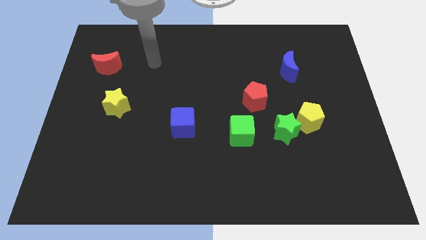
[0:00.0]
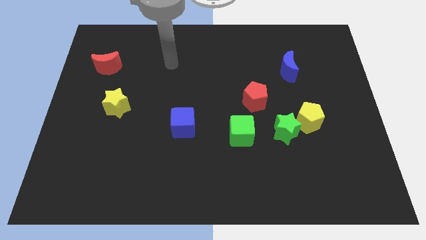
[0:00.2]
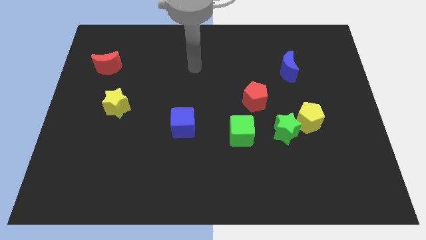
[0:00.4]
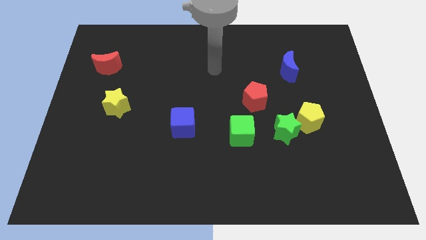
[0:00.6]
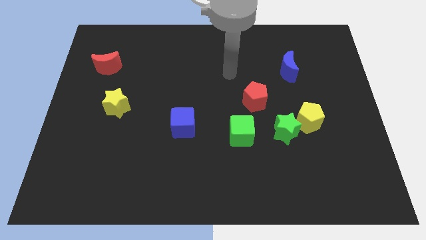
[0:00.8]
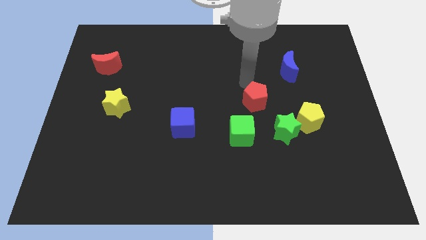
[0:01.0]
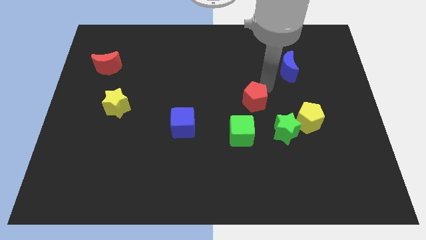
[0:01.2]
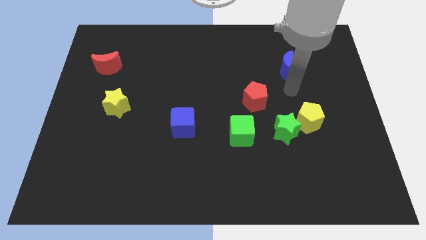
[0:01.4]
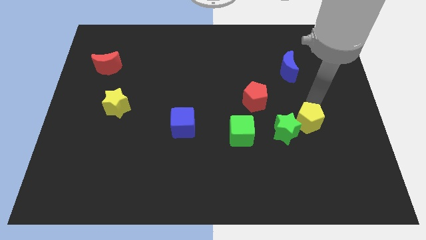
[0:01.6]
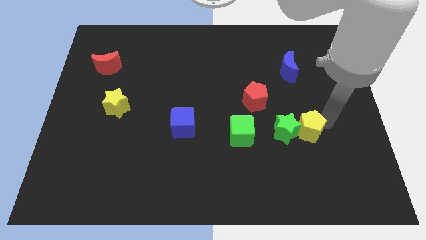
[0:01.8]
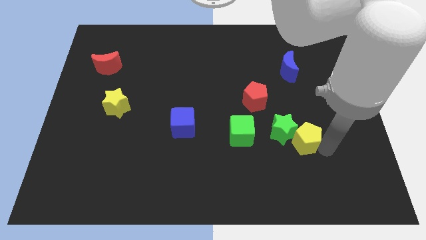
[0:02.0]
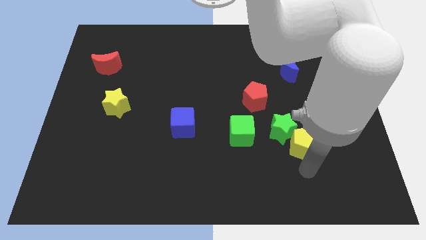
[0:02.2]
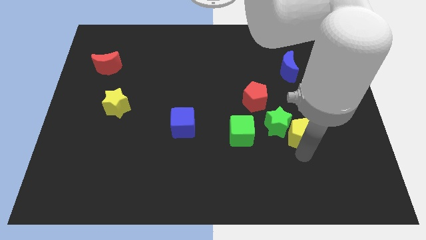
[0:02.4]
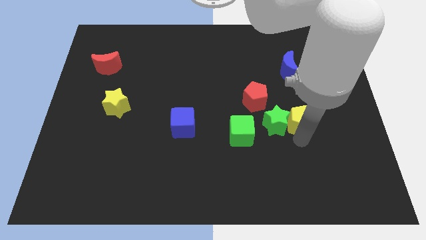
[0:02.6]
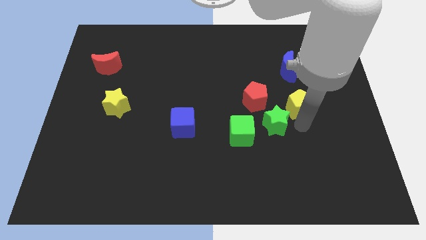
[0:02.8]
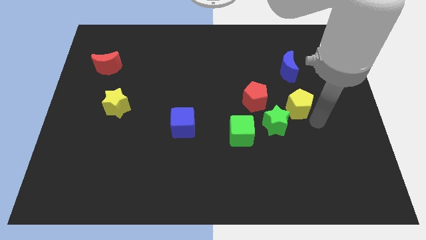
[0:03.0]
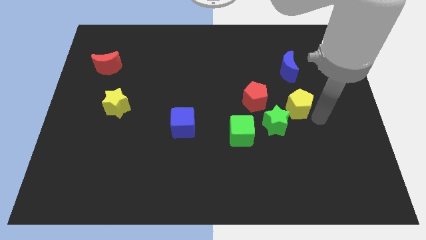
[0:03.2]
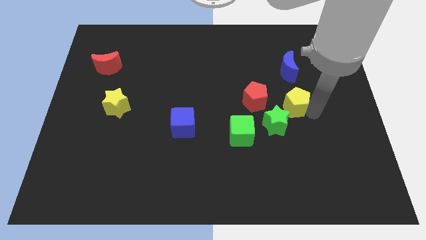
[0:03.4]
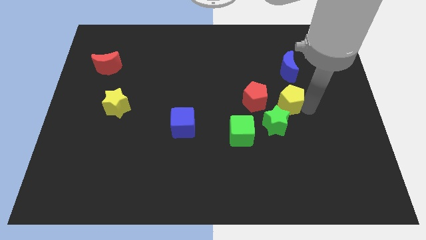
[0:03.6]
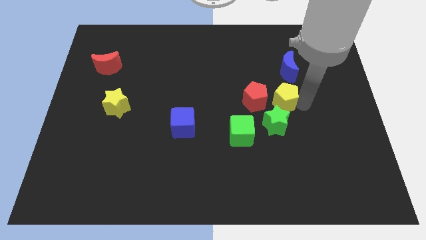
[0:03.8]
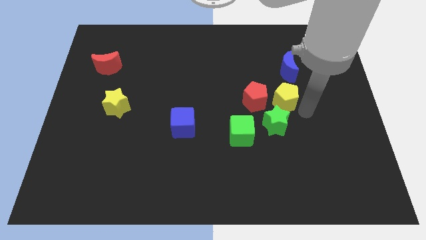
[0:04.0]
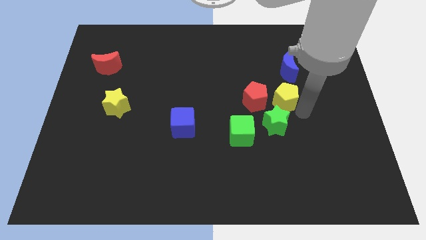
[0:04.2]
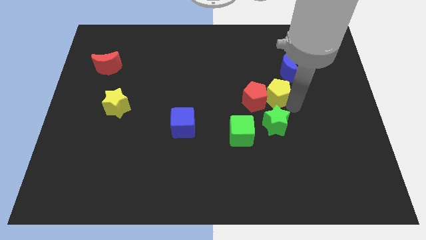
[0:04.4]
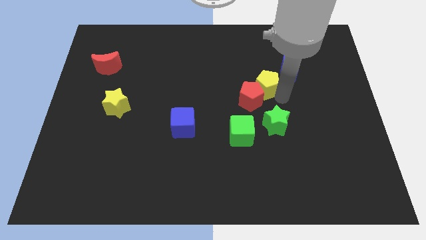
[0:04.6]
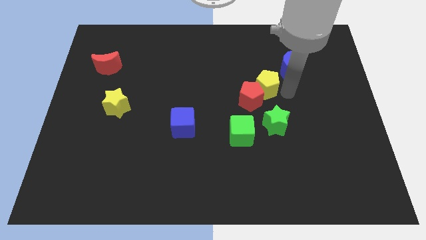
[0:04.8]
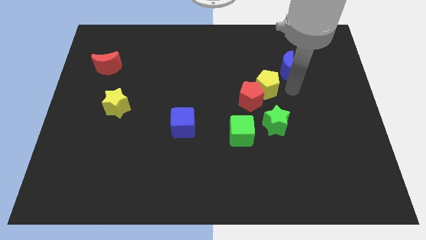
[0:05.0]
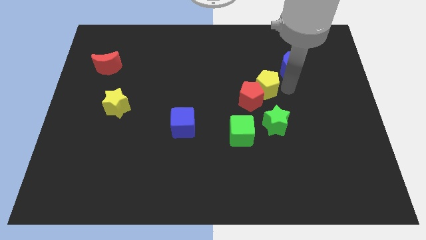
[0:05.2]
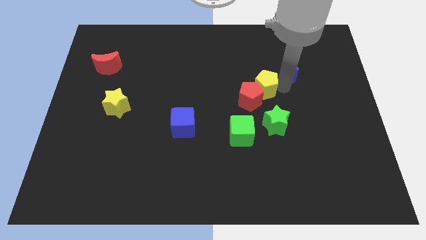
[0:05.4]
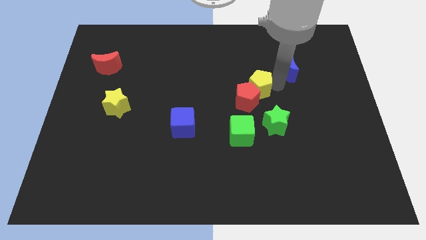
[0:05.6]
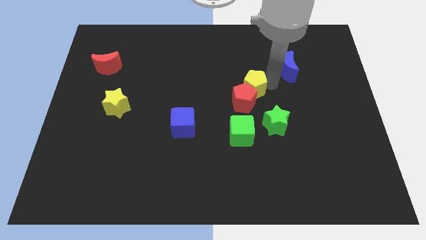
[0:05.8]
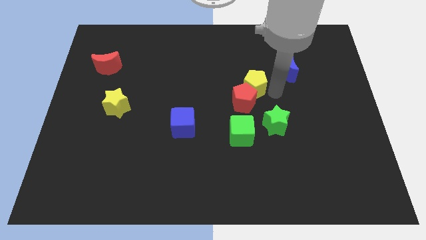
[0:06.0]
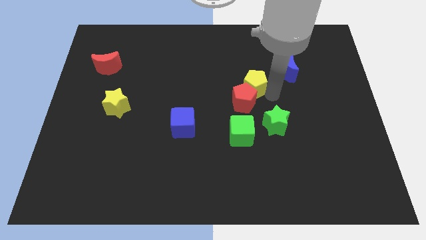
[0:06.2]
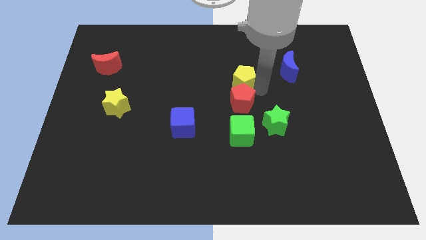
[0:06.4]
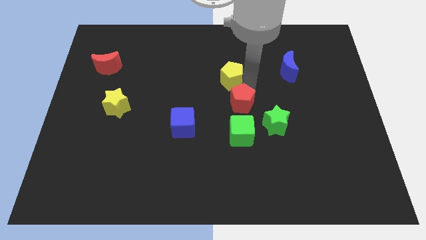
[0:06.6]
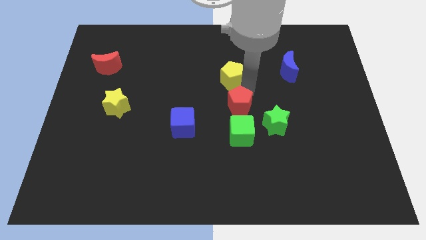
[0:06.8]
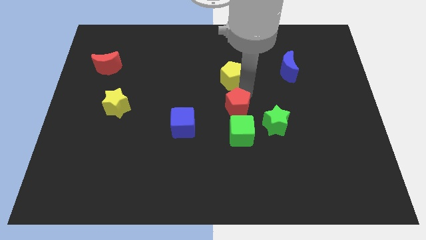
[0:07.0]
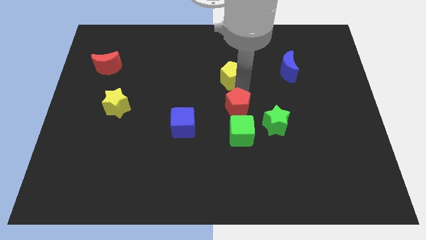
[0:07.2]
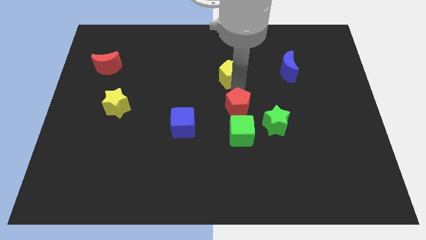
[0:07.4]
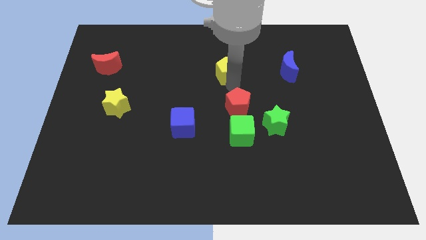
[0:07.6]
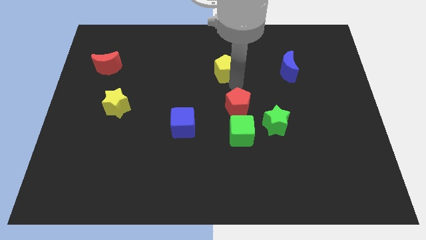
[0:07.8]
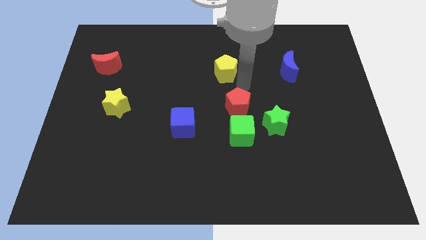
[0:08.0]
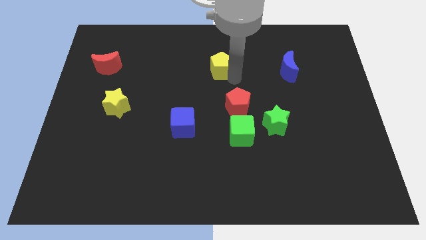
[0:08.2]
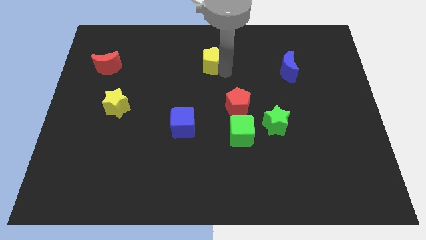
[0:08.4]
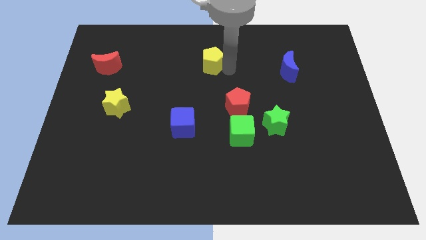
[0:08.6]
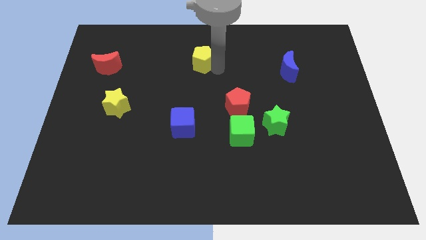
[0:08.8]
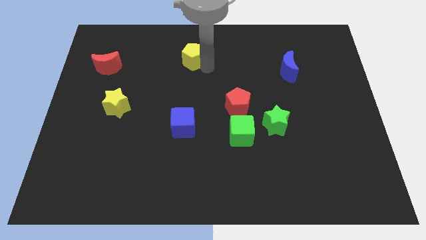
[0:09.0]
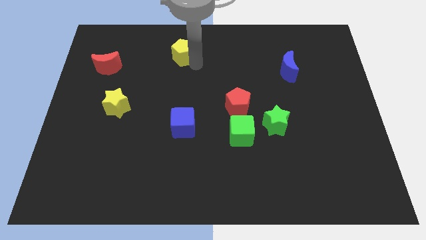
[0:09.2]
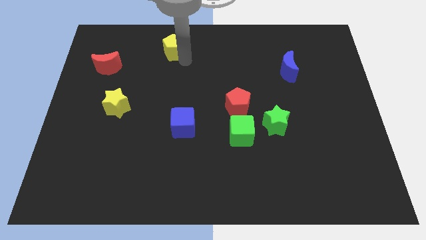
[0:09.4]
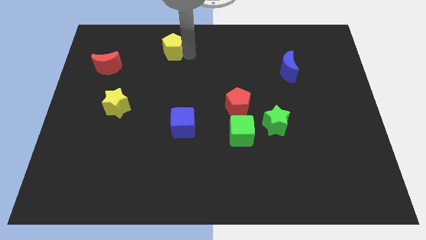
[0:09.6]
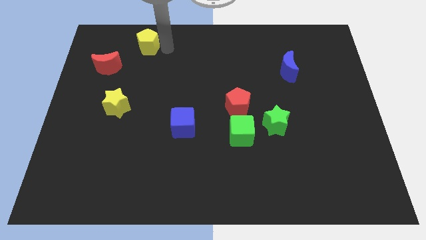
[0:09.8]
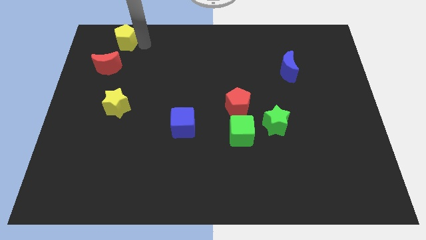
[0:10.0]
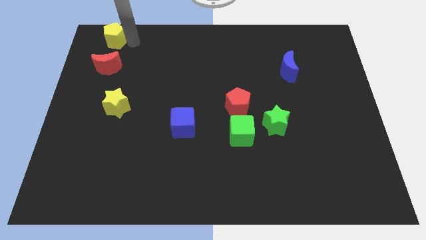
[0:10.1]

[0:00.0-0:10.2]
push the yellow pentagon to the top left
